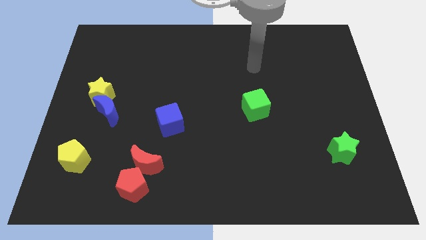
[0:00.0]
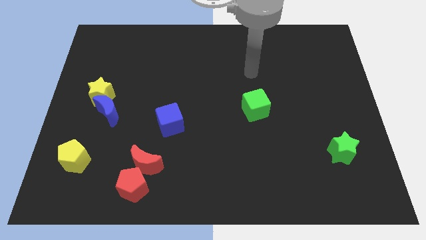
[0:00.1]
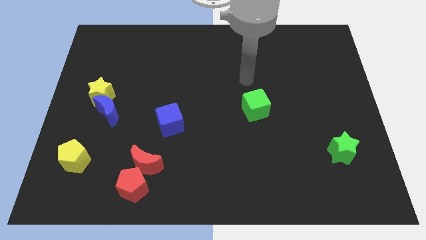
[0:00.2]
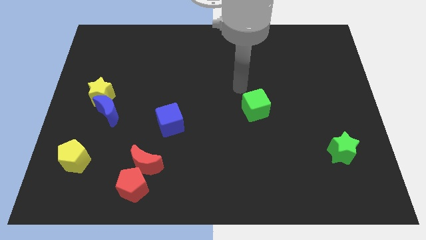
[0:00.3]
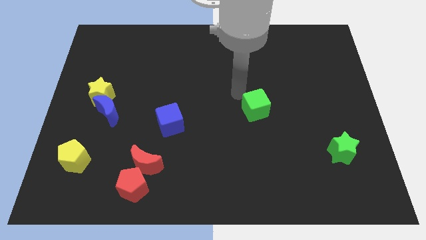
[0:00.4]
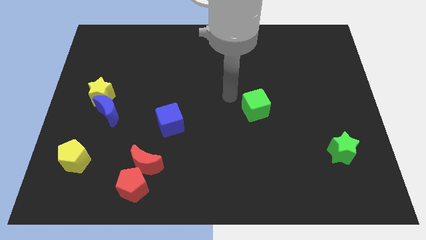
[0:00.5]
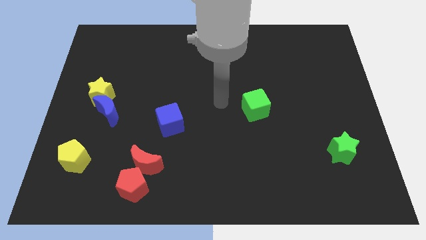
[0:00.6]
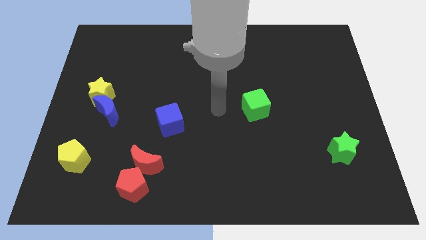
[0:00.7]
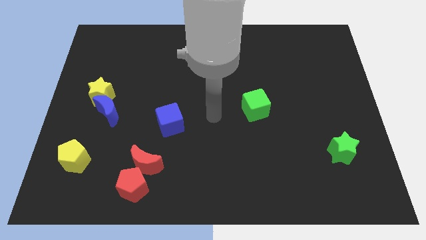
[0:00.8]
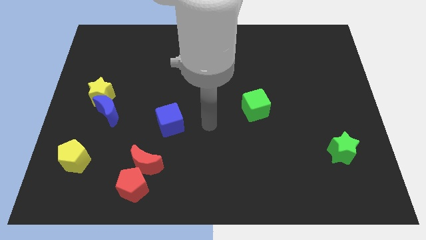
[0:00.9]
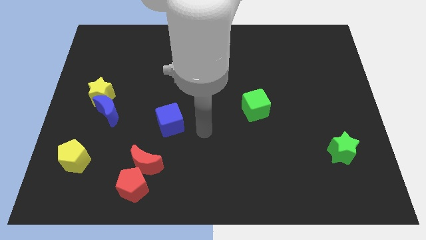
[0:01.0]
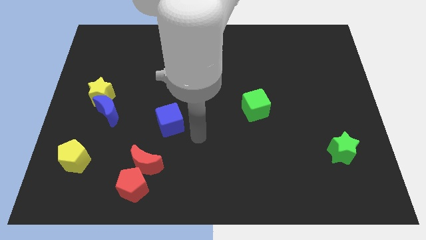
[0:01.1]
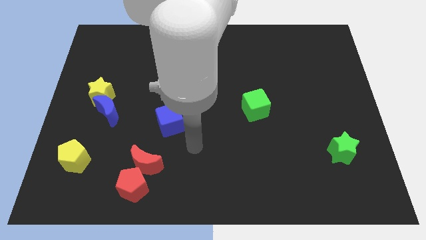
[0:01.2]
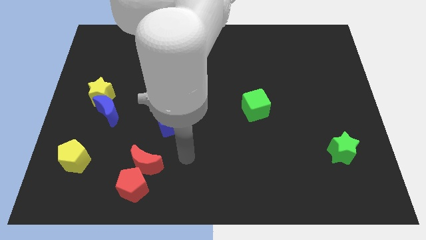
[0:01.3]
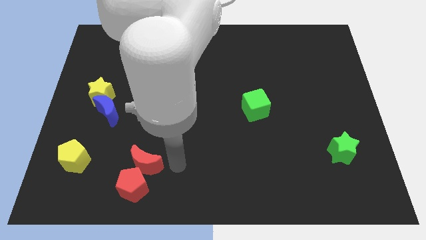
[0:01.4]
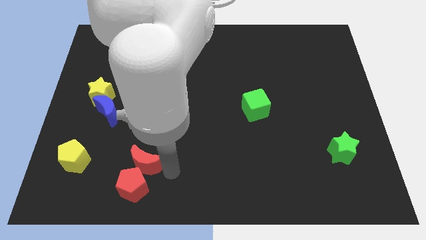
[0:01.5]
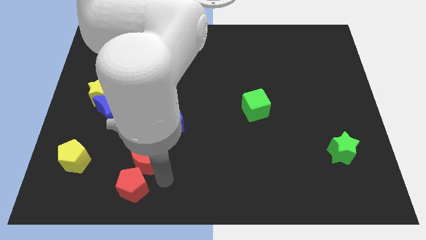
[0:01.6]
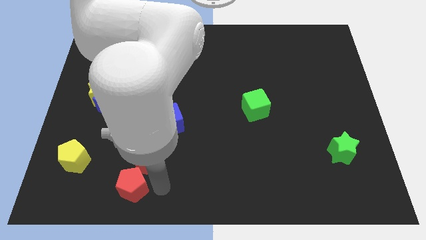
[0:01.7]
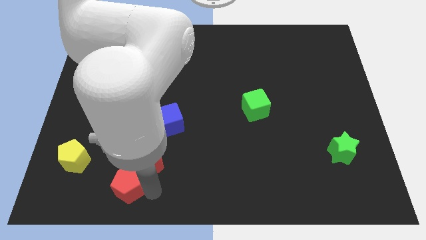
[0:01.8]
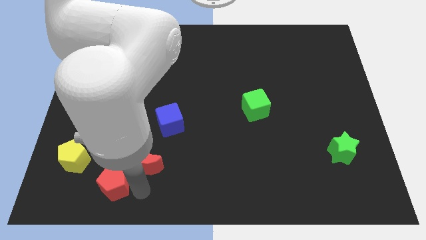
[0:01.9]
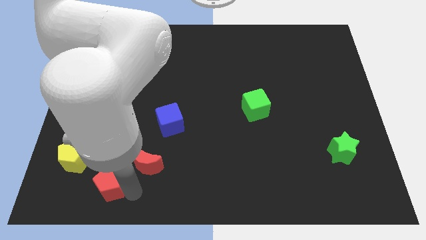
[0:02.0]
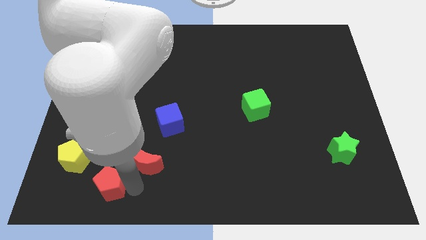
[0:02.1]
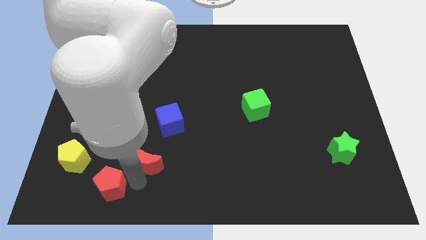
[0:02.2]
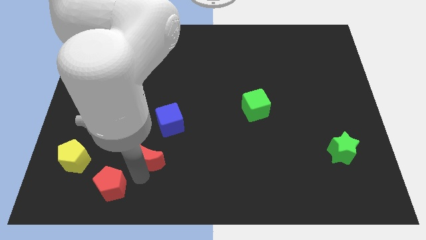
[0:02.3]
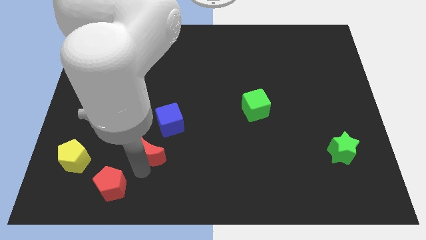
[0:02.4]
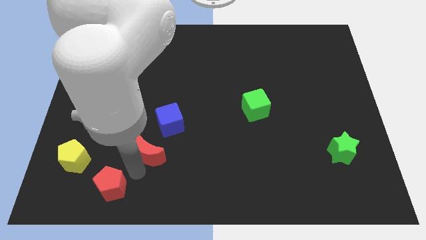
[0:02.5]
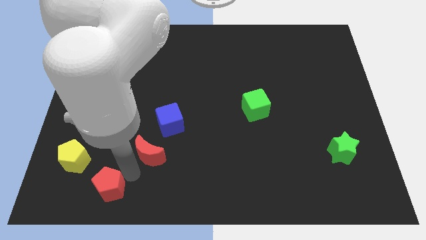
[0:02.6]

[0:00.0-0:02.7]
separate the red moon from the red pentagon

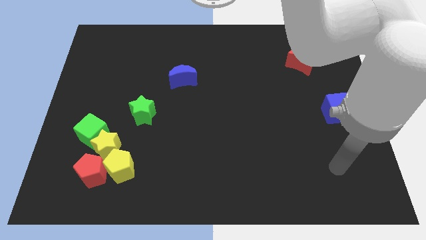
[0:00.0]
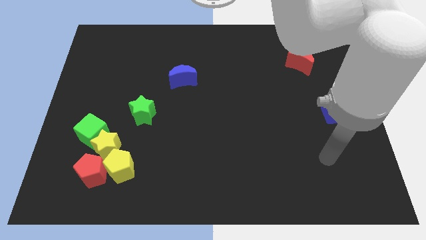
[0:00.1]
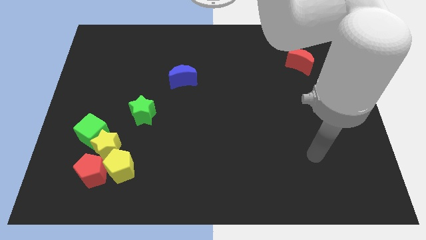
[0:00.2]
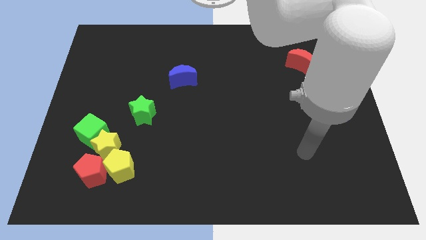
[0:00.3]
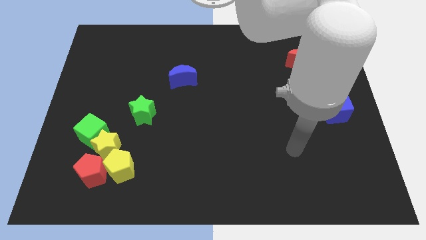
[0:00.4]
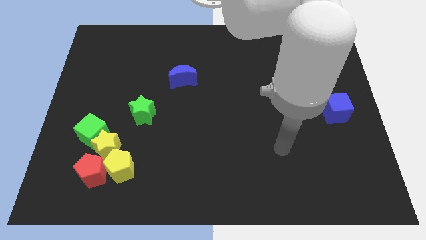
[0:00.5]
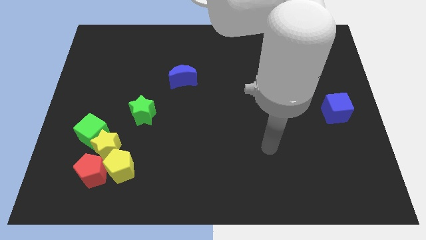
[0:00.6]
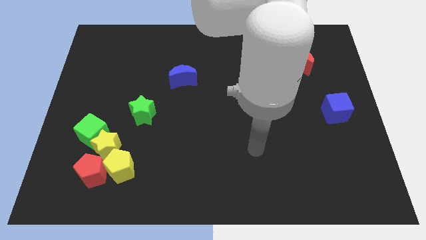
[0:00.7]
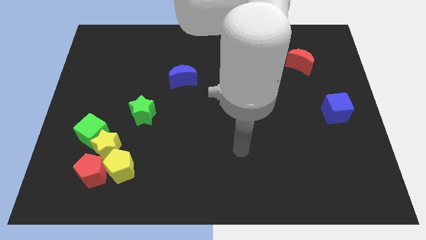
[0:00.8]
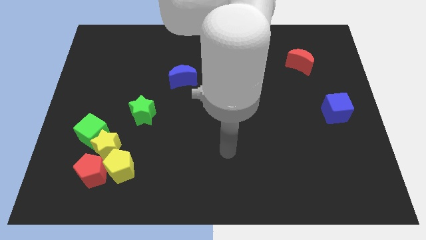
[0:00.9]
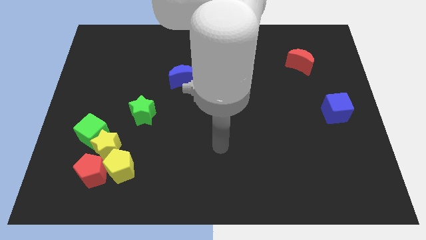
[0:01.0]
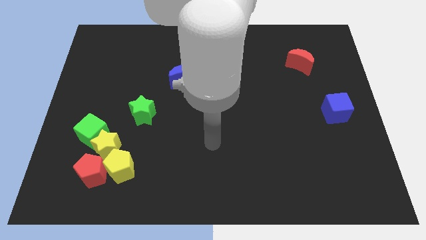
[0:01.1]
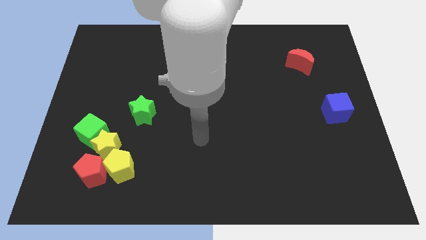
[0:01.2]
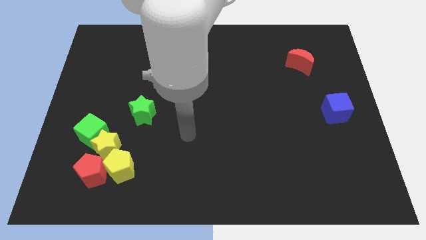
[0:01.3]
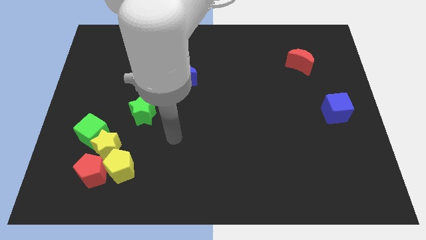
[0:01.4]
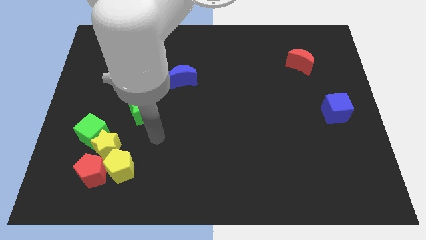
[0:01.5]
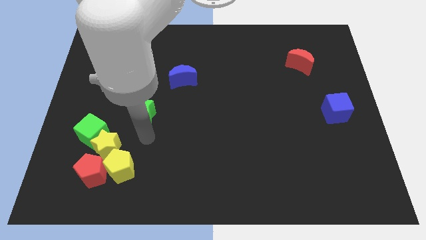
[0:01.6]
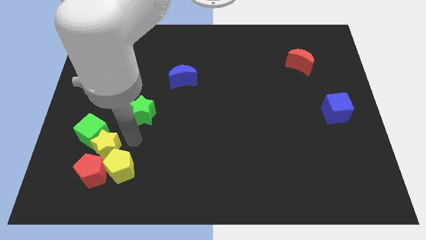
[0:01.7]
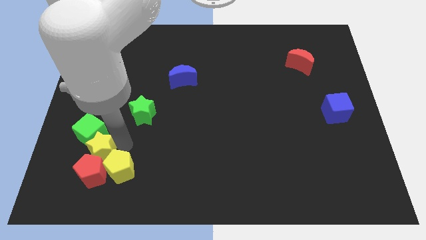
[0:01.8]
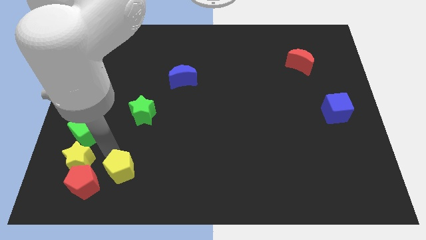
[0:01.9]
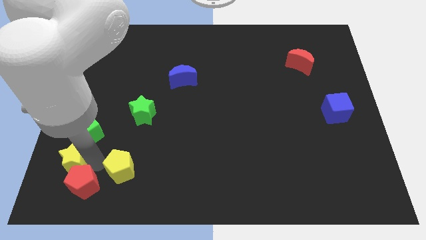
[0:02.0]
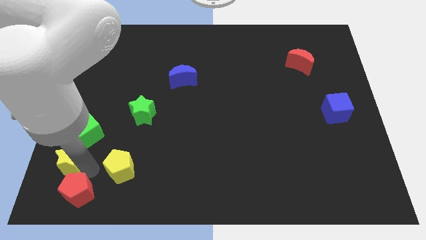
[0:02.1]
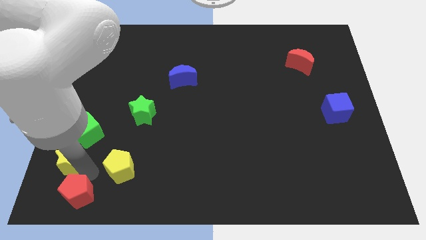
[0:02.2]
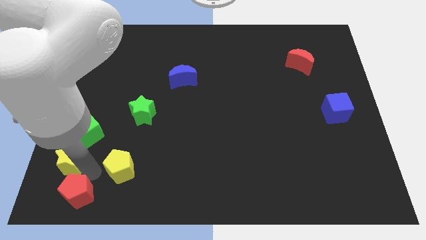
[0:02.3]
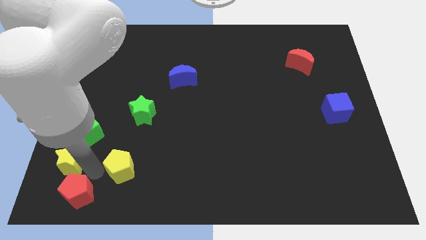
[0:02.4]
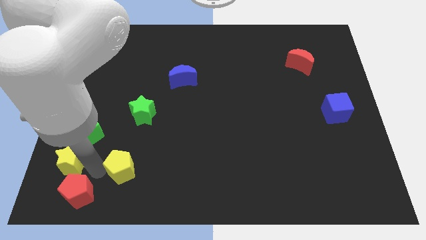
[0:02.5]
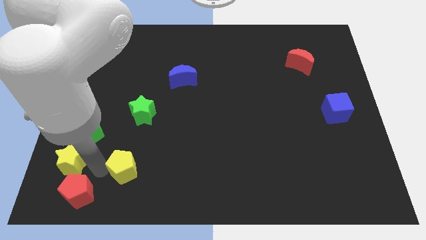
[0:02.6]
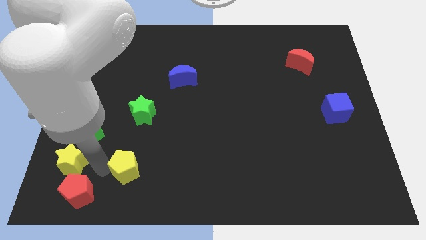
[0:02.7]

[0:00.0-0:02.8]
separate the yellow pentagon from the red pentagon and yellow star

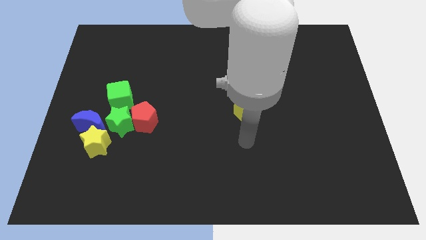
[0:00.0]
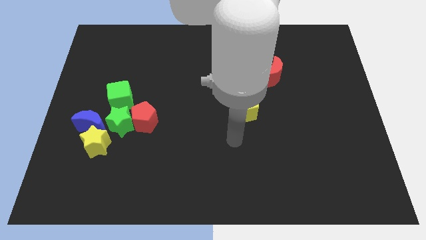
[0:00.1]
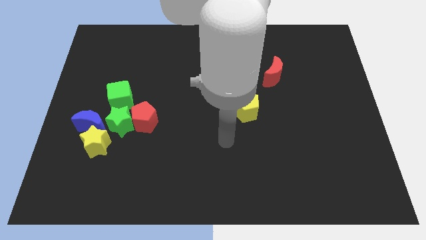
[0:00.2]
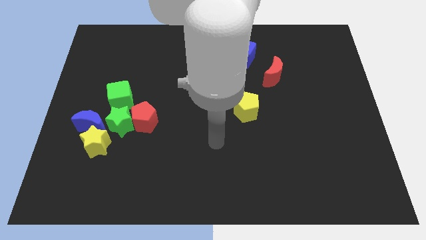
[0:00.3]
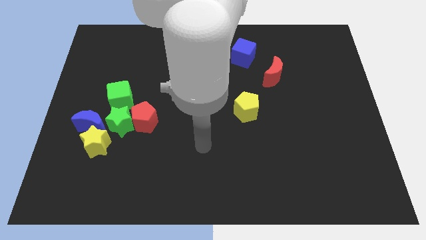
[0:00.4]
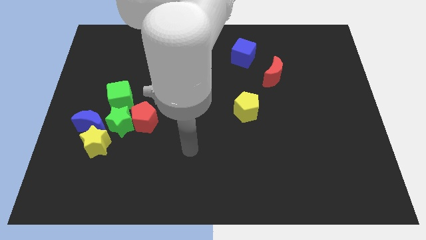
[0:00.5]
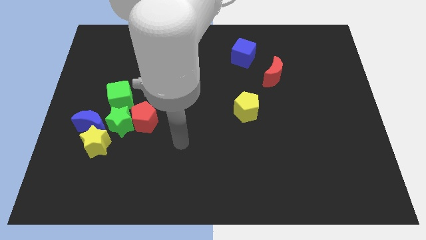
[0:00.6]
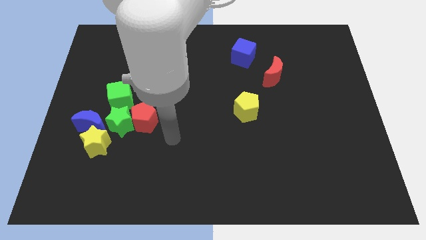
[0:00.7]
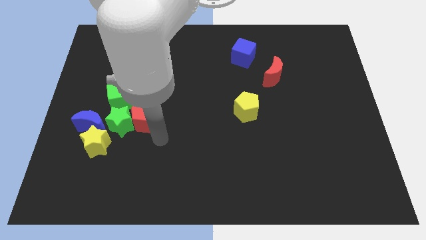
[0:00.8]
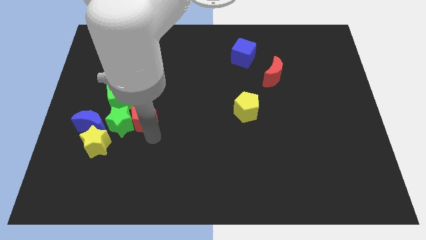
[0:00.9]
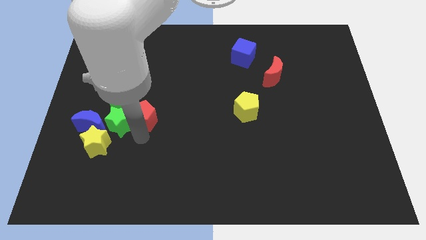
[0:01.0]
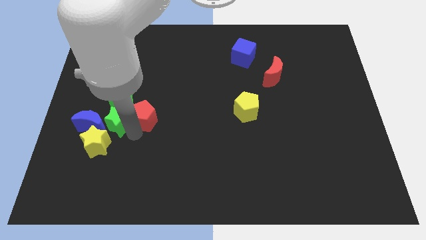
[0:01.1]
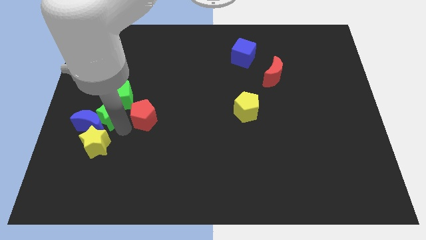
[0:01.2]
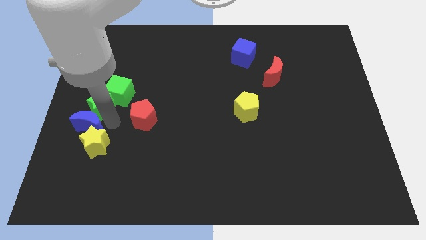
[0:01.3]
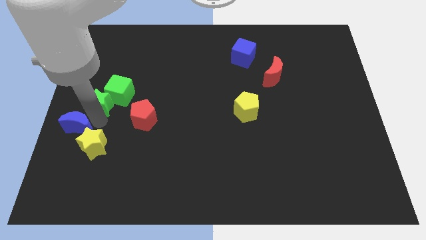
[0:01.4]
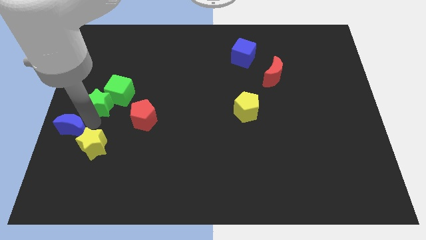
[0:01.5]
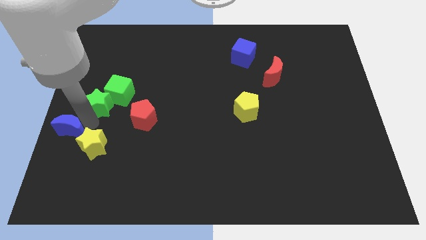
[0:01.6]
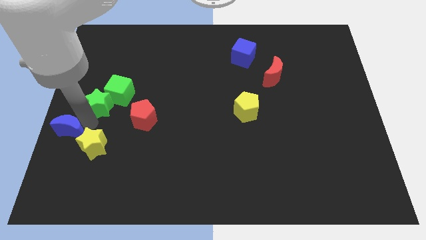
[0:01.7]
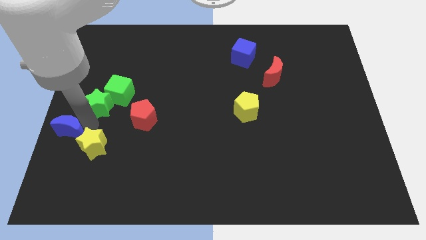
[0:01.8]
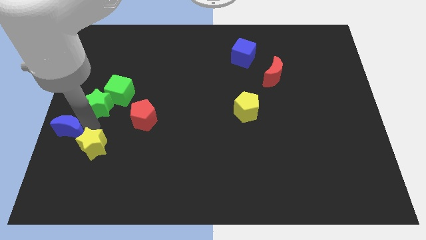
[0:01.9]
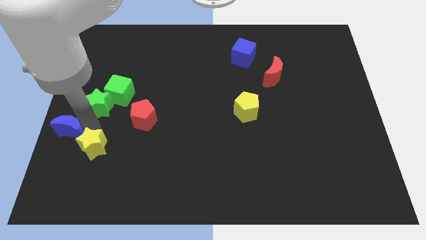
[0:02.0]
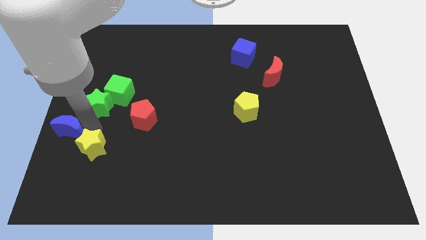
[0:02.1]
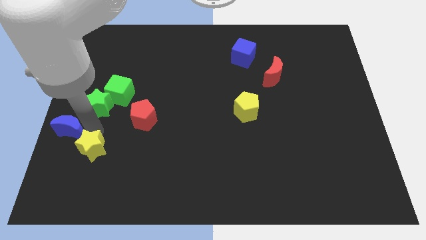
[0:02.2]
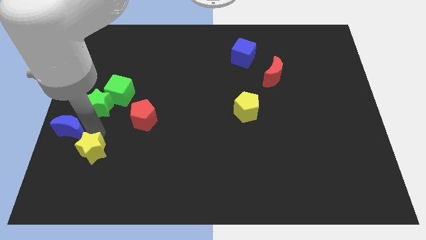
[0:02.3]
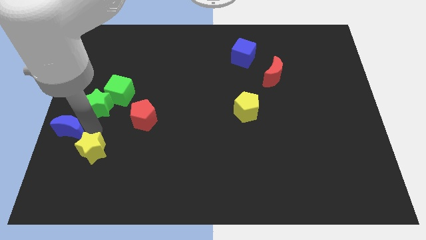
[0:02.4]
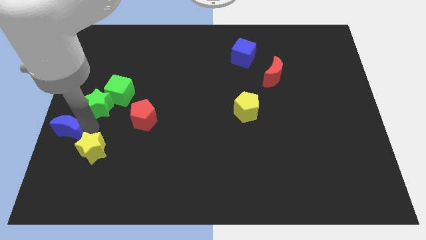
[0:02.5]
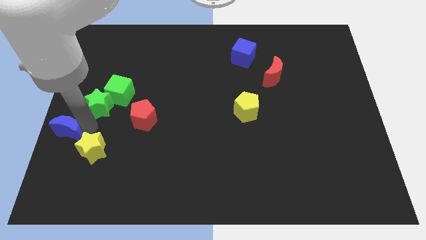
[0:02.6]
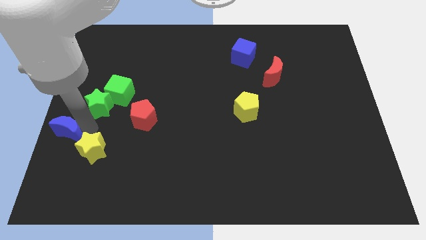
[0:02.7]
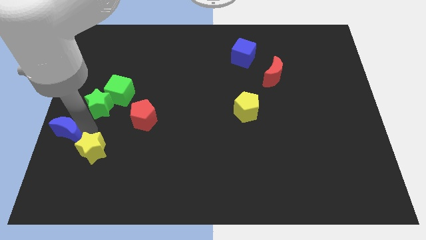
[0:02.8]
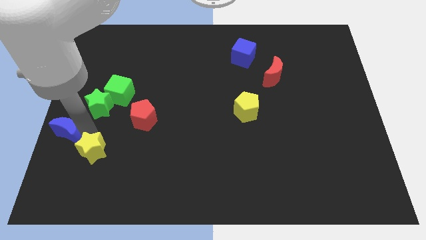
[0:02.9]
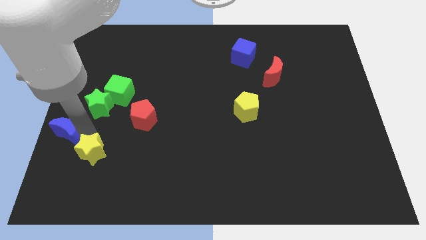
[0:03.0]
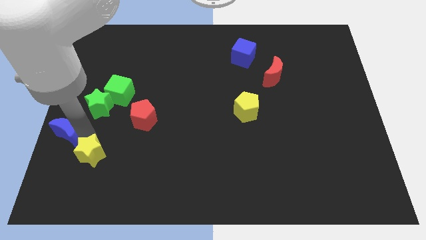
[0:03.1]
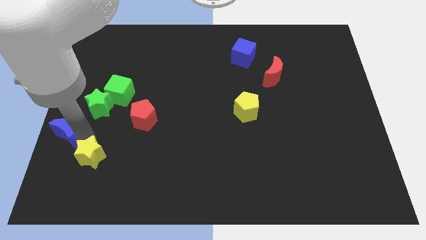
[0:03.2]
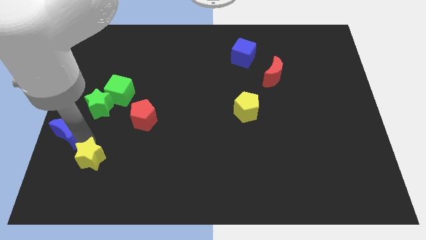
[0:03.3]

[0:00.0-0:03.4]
move the yellow star away from the blue moon and green star

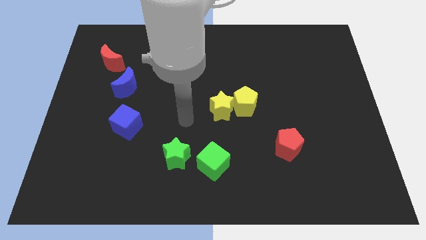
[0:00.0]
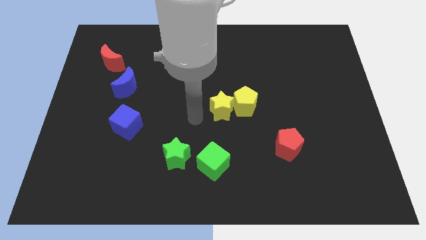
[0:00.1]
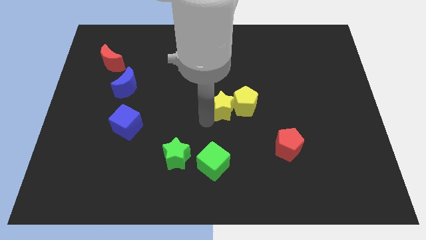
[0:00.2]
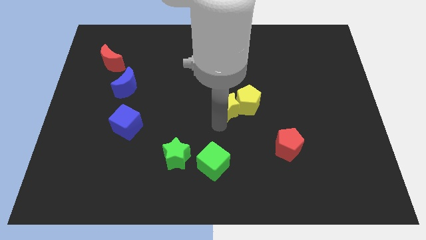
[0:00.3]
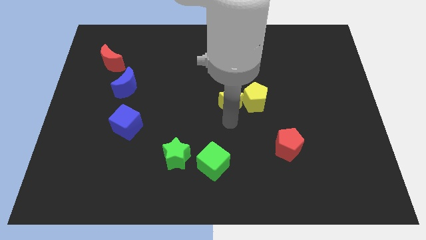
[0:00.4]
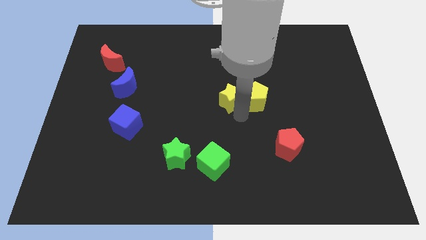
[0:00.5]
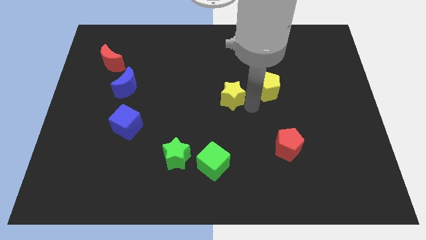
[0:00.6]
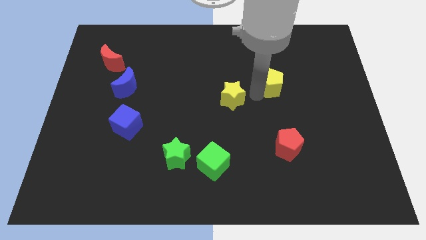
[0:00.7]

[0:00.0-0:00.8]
move the yellow star away from the yellow pentagon
